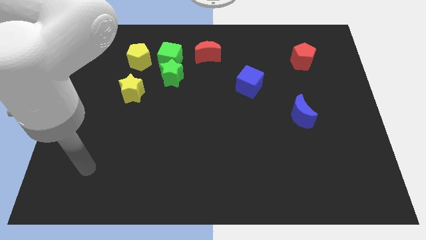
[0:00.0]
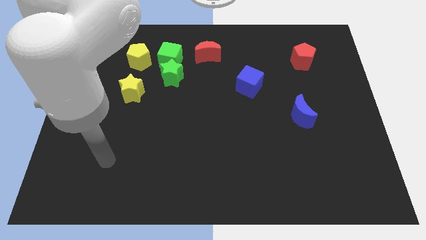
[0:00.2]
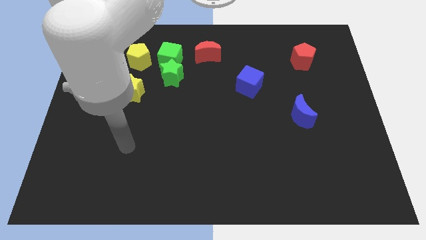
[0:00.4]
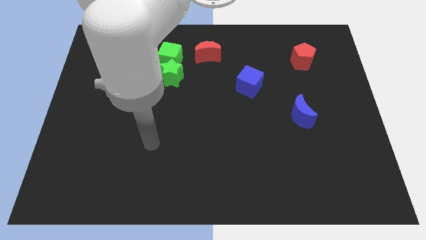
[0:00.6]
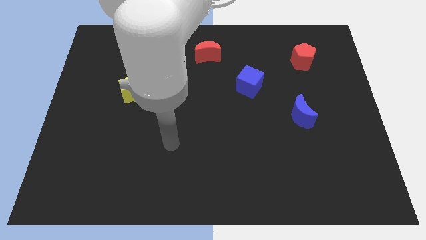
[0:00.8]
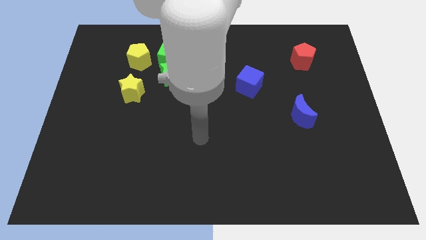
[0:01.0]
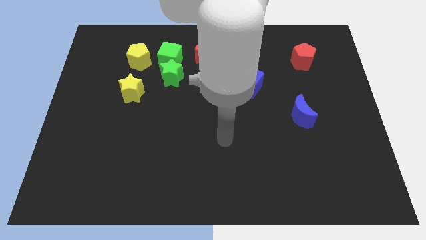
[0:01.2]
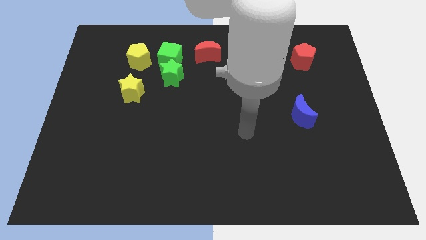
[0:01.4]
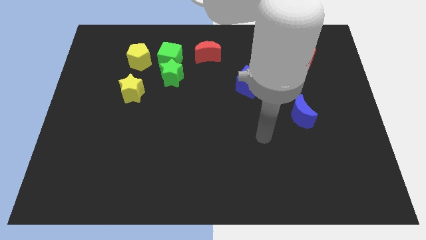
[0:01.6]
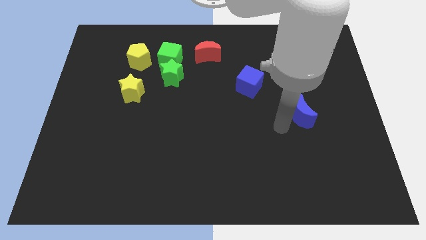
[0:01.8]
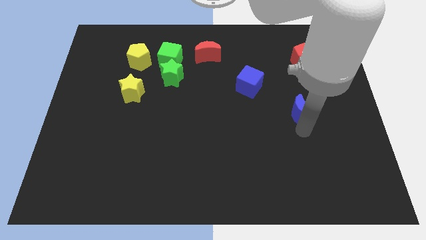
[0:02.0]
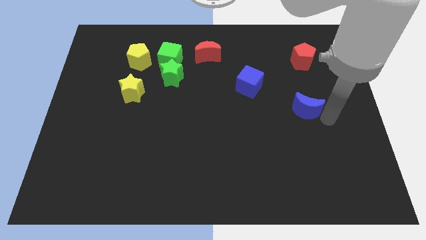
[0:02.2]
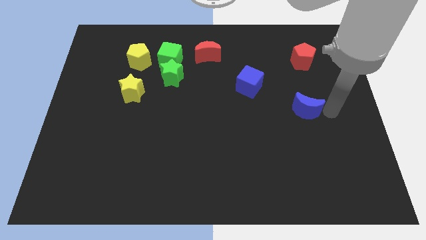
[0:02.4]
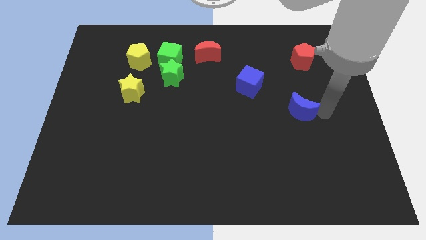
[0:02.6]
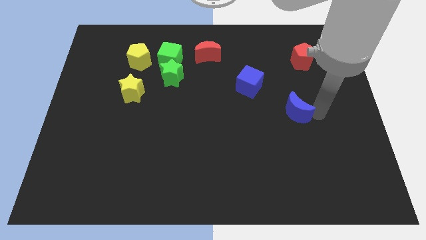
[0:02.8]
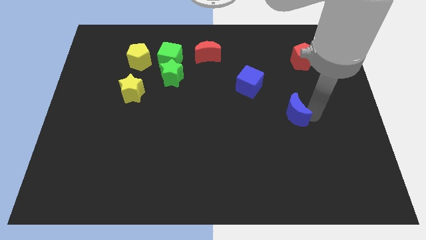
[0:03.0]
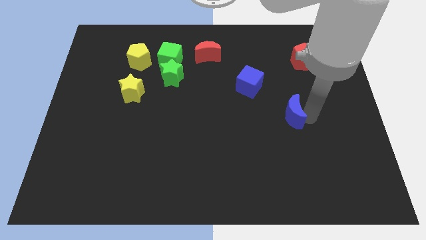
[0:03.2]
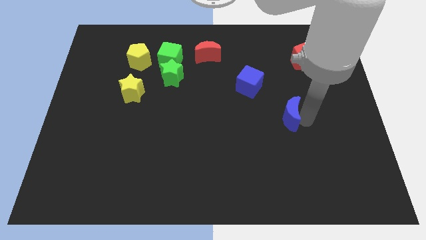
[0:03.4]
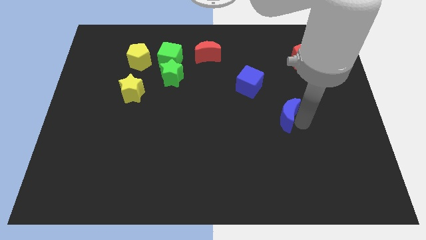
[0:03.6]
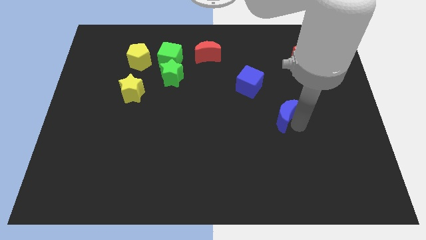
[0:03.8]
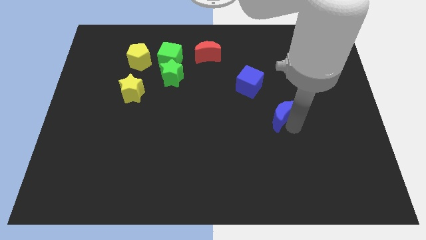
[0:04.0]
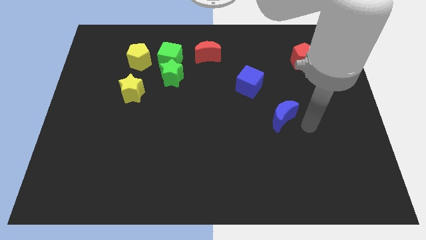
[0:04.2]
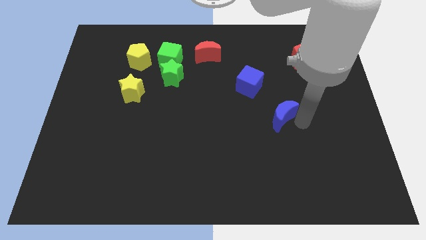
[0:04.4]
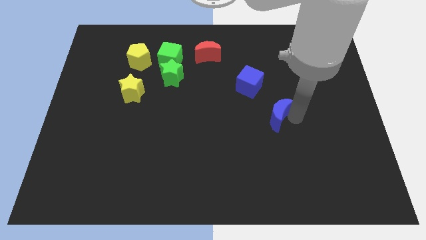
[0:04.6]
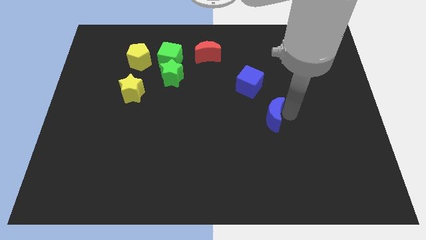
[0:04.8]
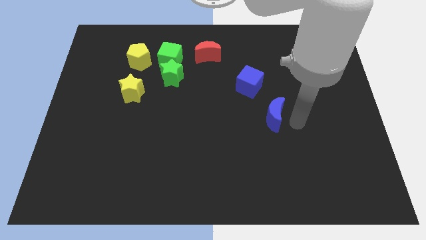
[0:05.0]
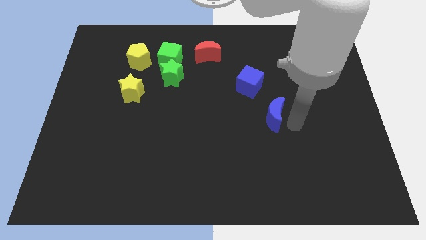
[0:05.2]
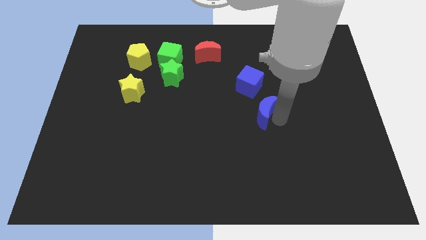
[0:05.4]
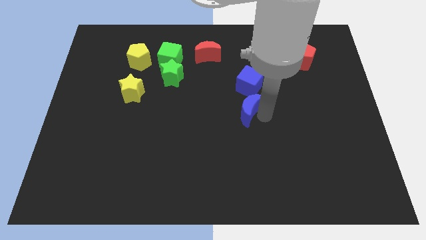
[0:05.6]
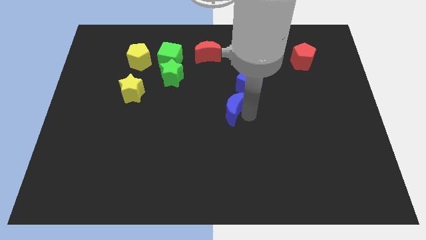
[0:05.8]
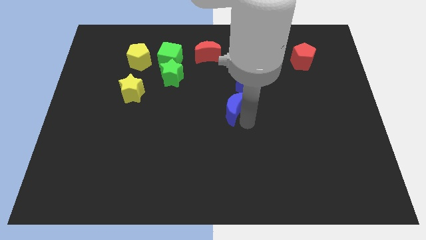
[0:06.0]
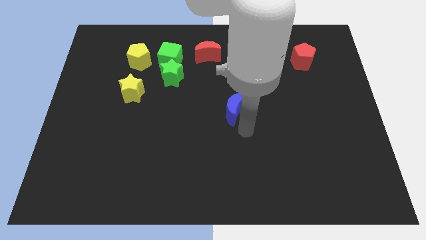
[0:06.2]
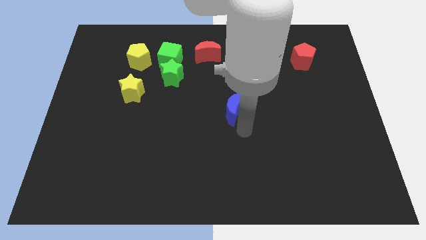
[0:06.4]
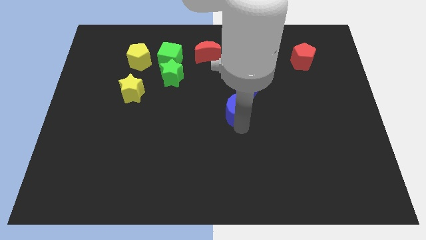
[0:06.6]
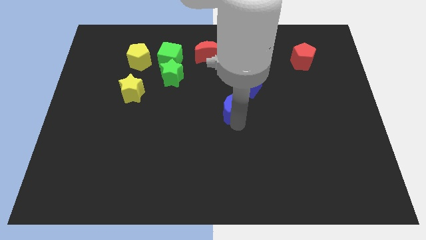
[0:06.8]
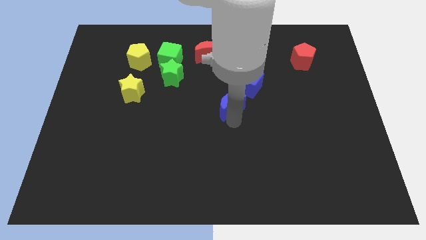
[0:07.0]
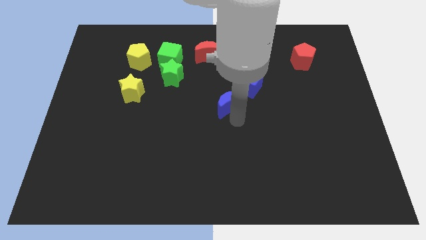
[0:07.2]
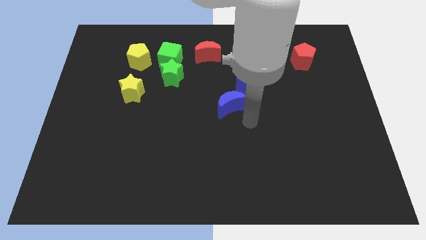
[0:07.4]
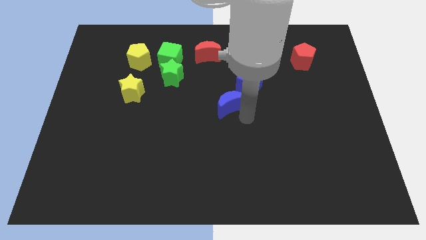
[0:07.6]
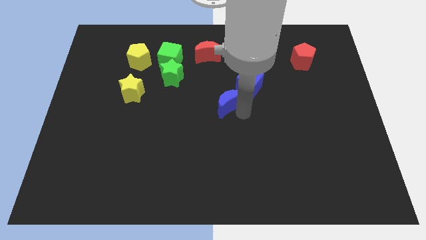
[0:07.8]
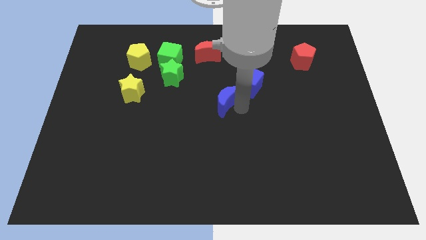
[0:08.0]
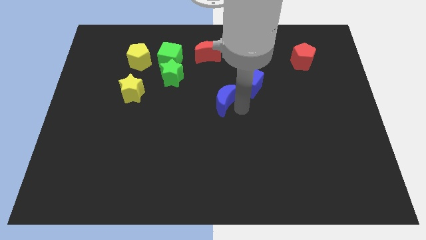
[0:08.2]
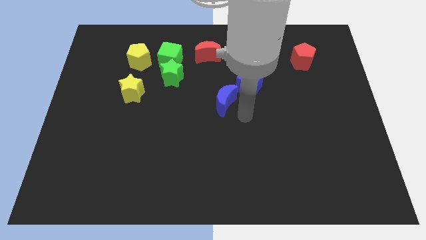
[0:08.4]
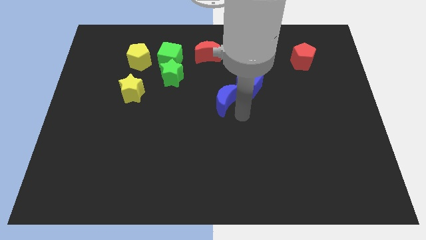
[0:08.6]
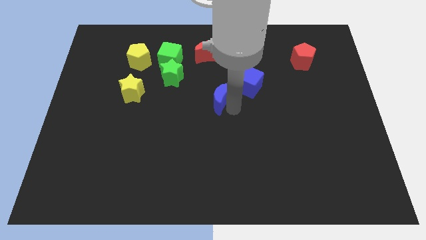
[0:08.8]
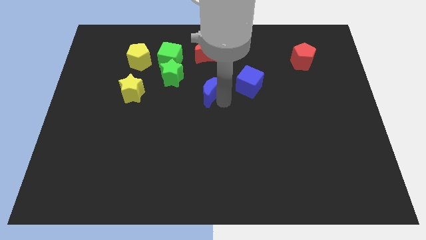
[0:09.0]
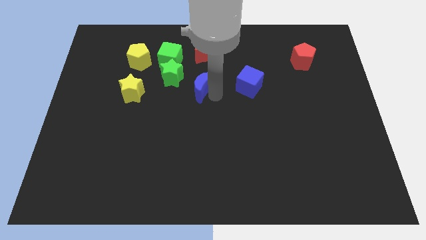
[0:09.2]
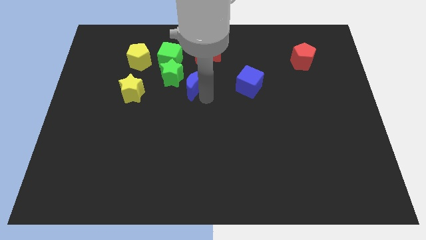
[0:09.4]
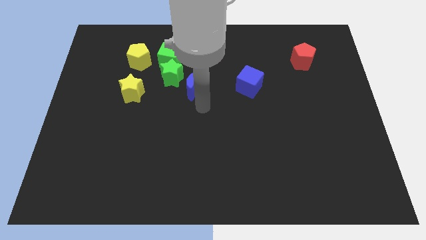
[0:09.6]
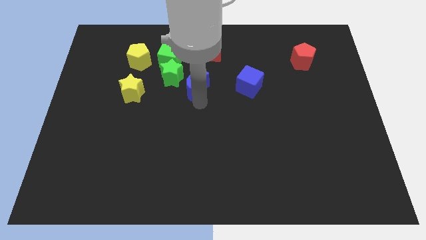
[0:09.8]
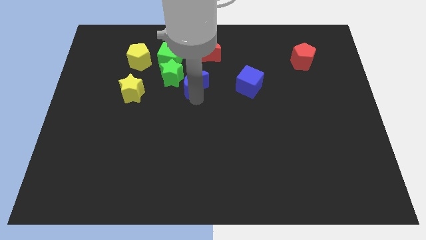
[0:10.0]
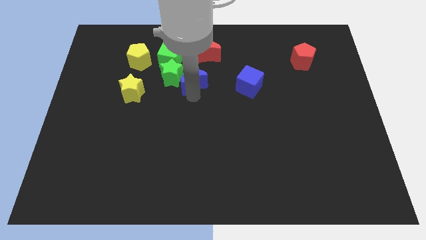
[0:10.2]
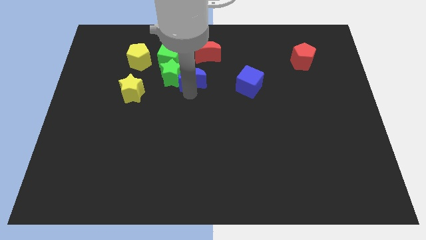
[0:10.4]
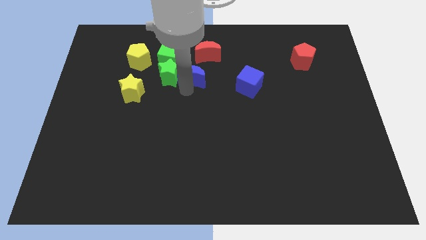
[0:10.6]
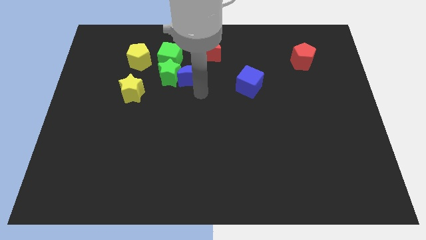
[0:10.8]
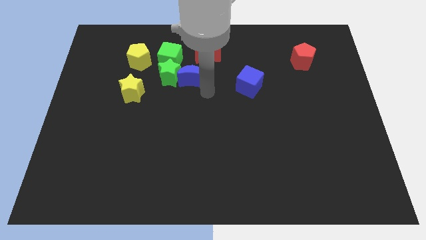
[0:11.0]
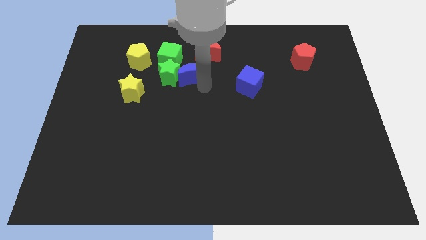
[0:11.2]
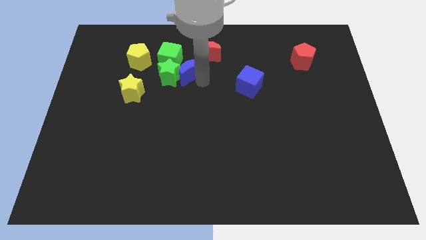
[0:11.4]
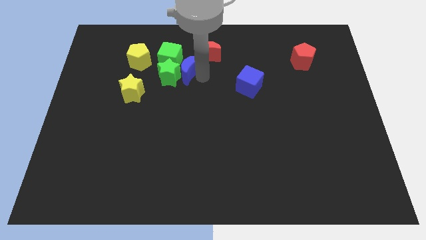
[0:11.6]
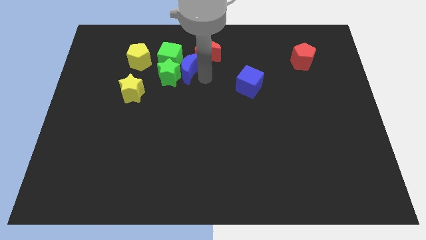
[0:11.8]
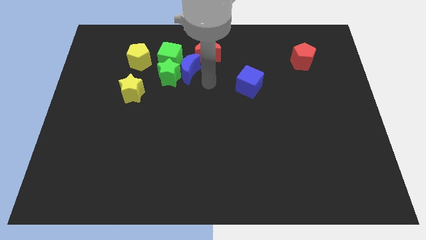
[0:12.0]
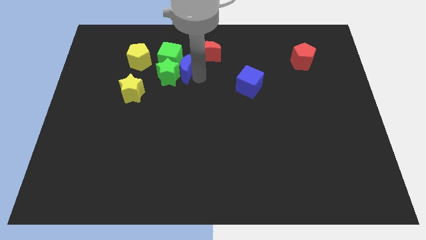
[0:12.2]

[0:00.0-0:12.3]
move the blue moon towards the green cube

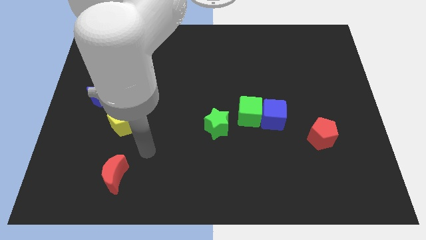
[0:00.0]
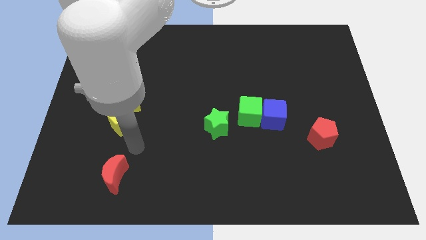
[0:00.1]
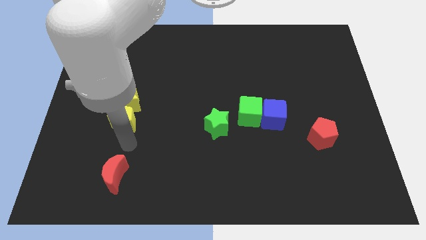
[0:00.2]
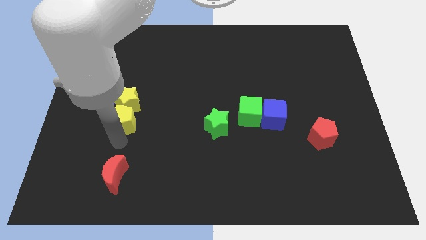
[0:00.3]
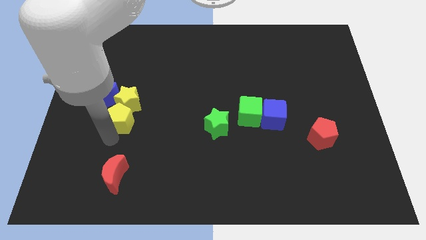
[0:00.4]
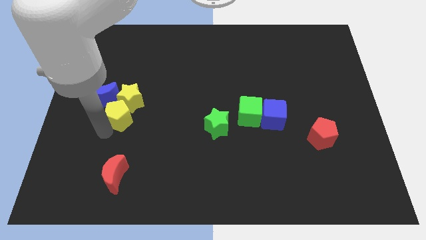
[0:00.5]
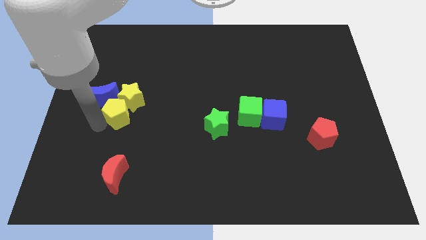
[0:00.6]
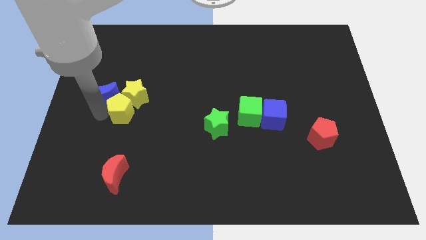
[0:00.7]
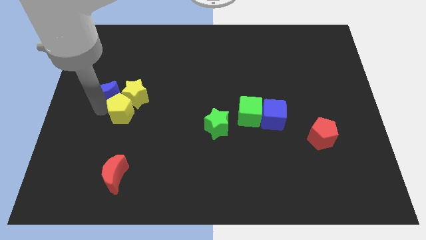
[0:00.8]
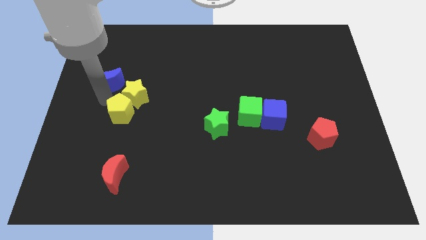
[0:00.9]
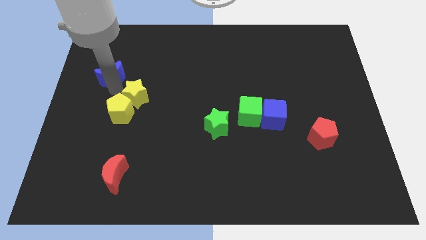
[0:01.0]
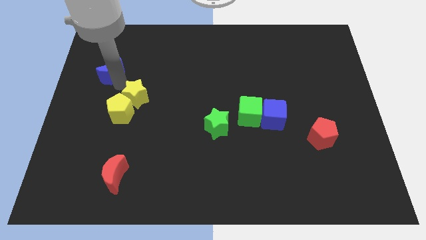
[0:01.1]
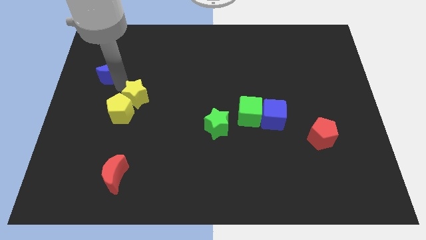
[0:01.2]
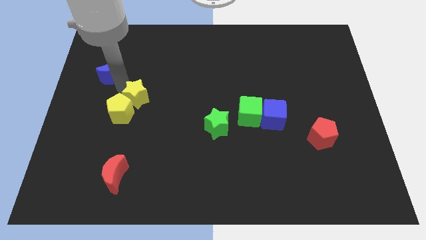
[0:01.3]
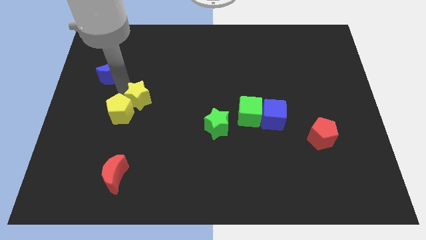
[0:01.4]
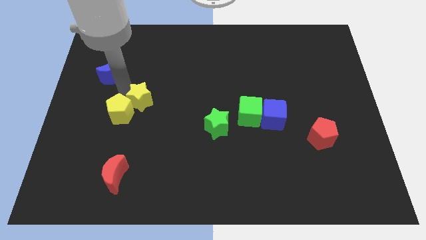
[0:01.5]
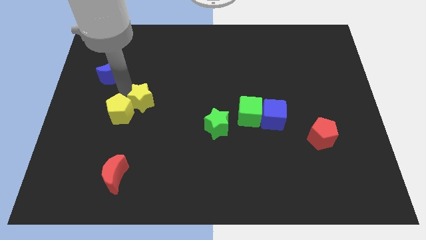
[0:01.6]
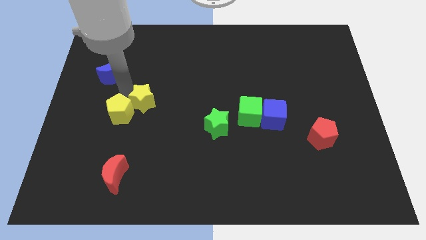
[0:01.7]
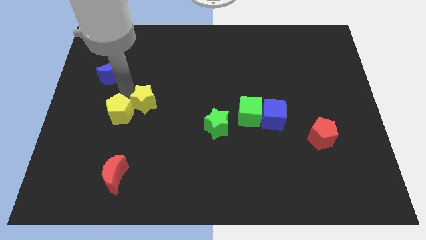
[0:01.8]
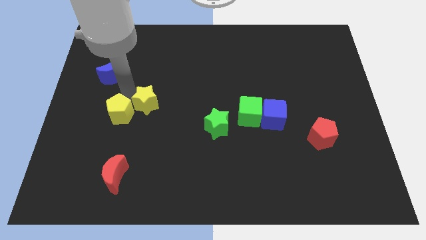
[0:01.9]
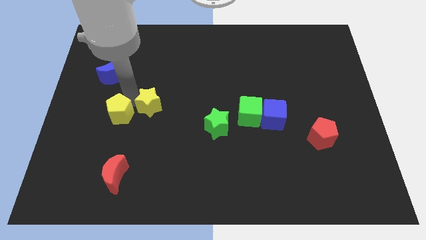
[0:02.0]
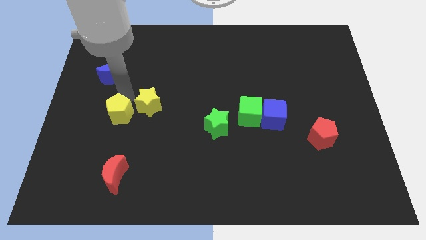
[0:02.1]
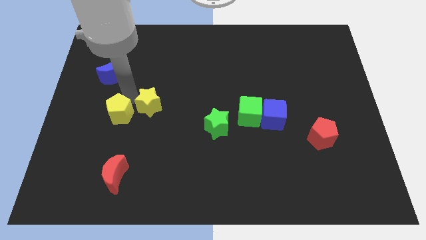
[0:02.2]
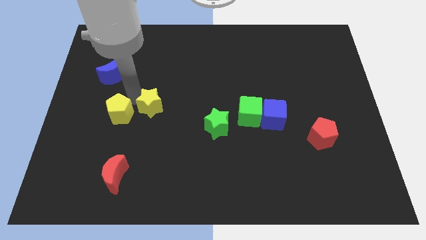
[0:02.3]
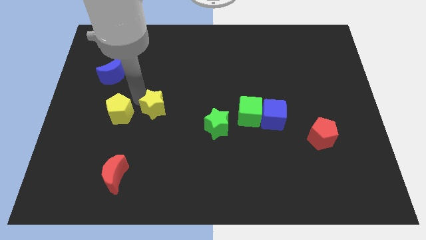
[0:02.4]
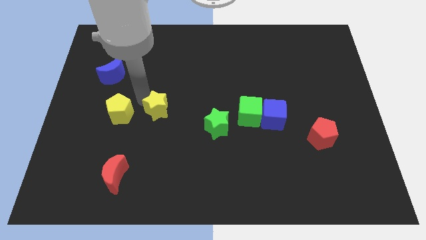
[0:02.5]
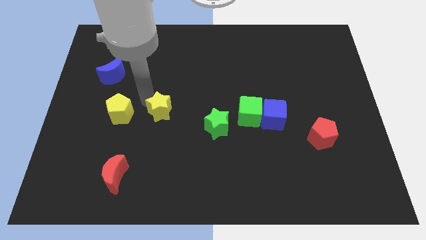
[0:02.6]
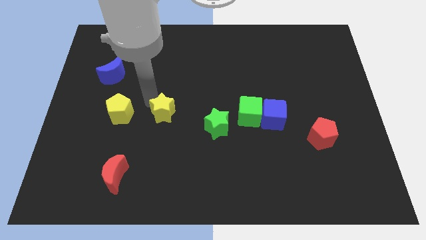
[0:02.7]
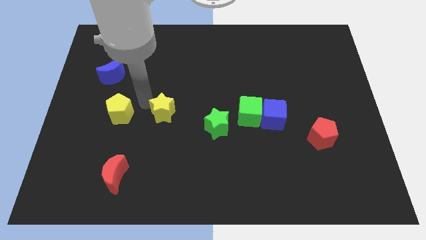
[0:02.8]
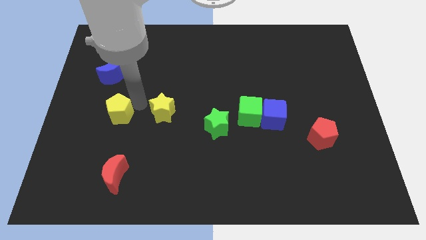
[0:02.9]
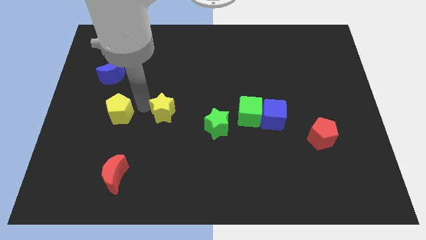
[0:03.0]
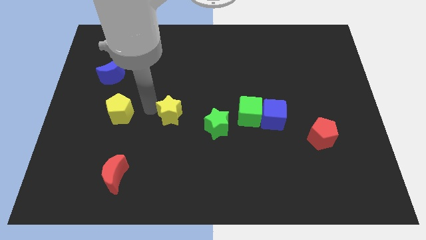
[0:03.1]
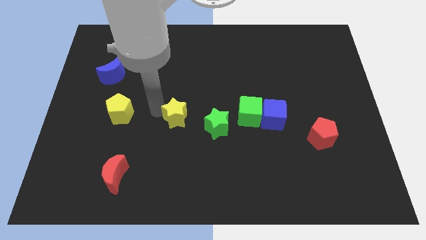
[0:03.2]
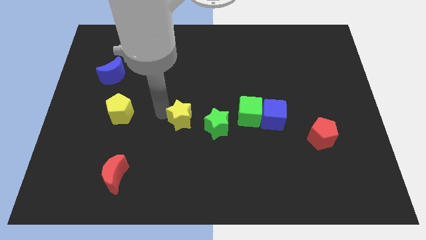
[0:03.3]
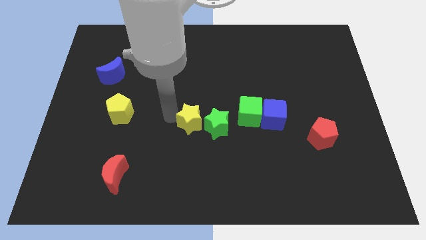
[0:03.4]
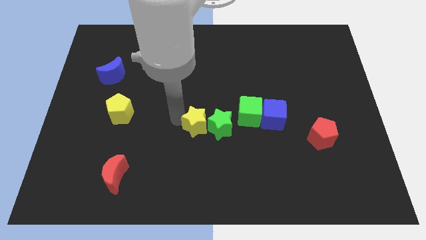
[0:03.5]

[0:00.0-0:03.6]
push the yellow star next to the green star
